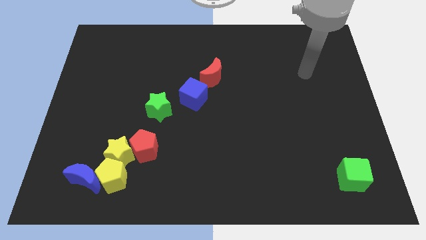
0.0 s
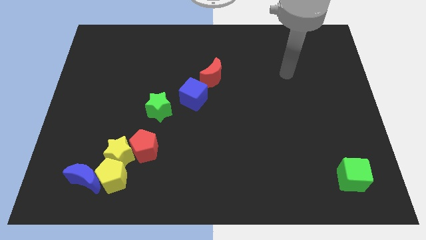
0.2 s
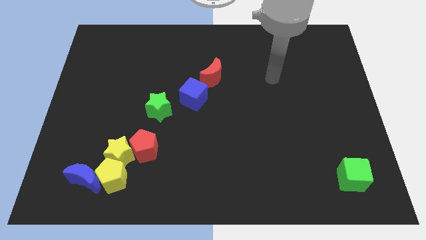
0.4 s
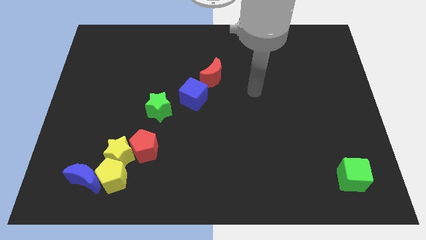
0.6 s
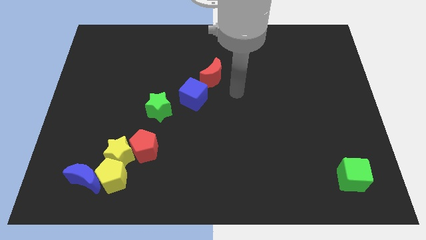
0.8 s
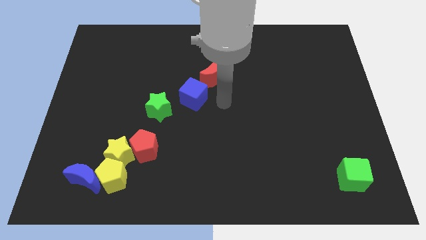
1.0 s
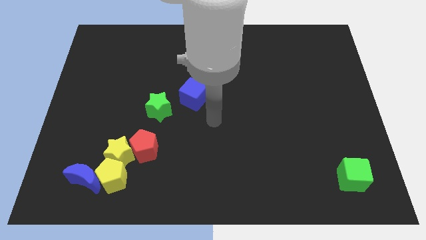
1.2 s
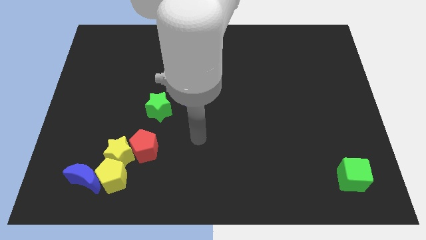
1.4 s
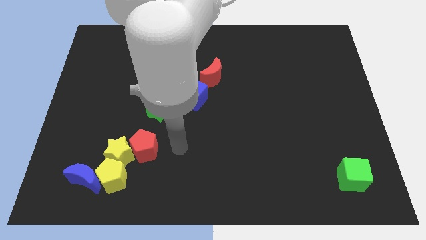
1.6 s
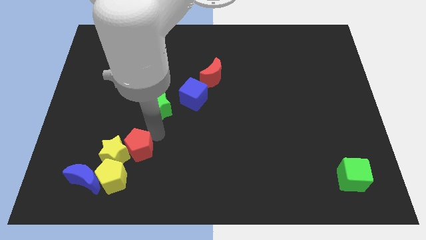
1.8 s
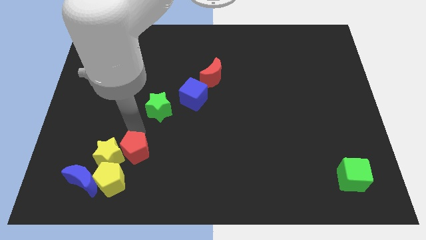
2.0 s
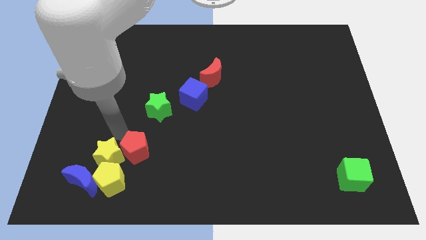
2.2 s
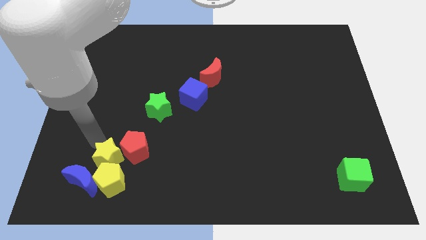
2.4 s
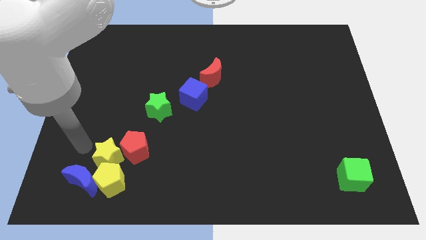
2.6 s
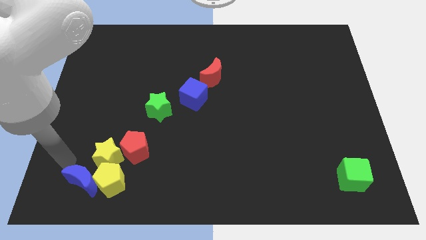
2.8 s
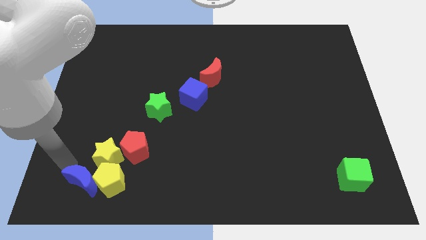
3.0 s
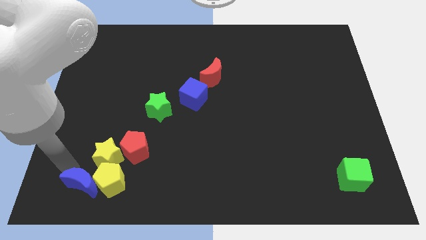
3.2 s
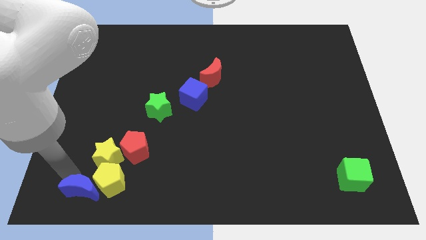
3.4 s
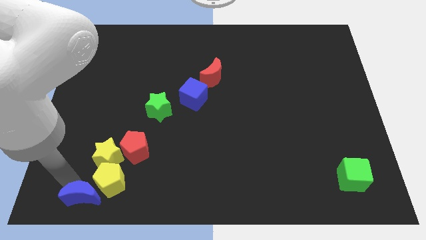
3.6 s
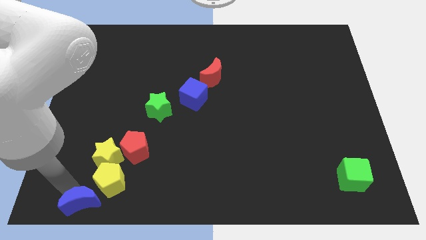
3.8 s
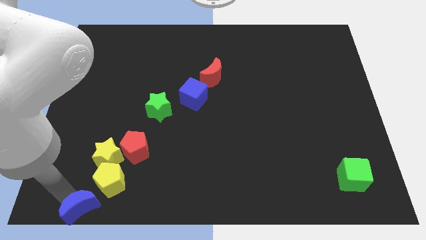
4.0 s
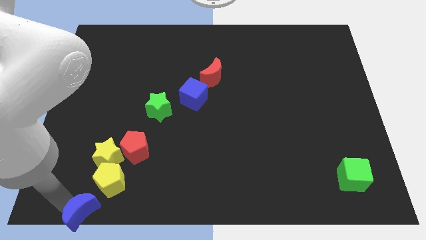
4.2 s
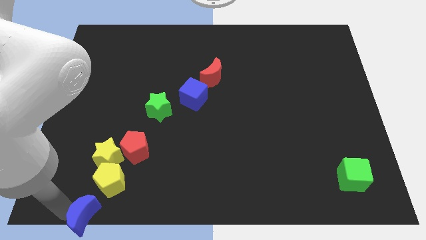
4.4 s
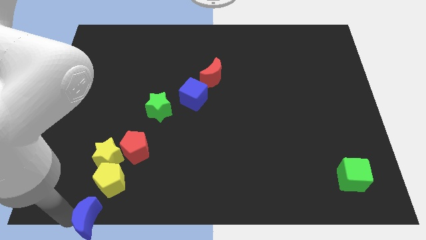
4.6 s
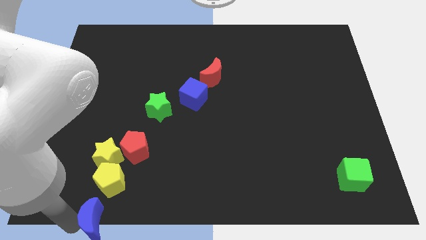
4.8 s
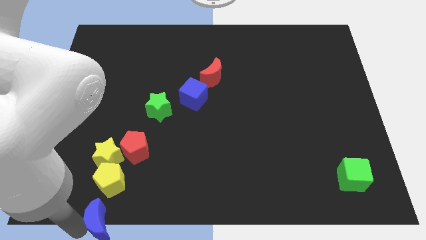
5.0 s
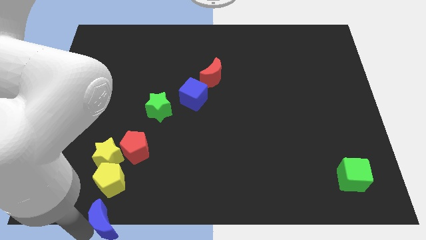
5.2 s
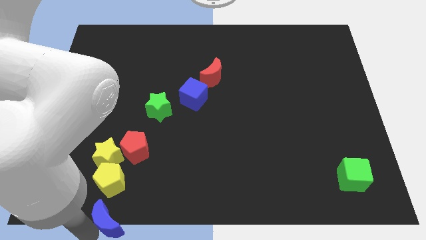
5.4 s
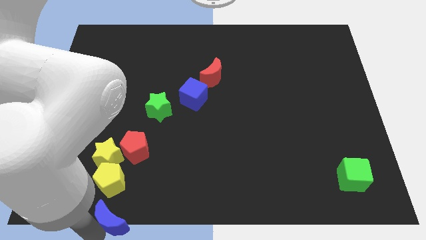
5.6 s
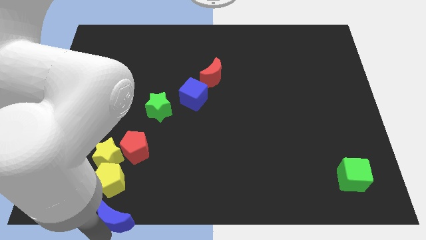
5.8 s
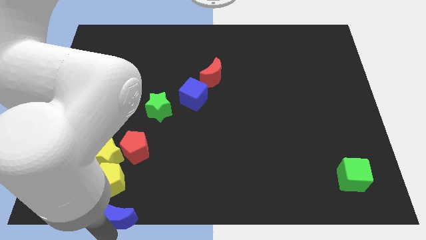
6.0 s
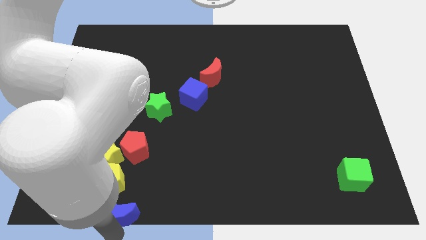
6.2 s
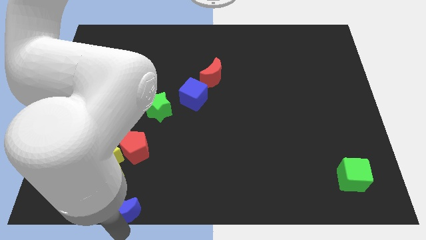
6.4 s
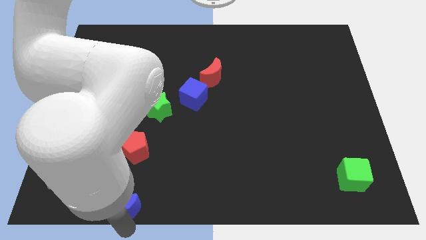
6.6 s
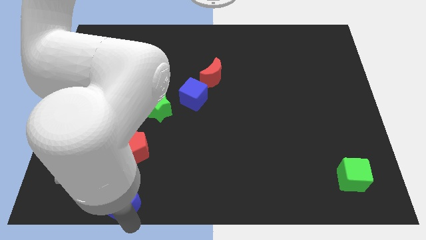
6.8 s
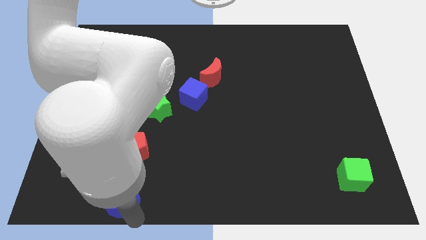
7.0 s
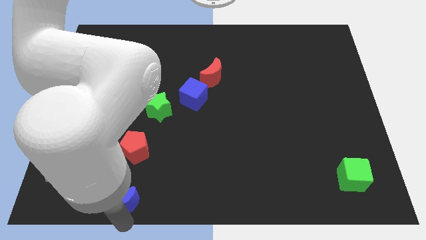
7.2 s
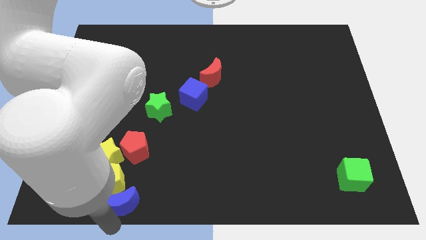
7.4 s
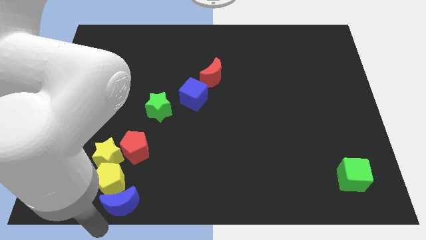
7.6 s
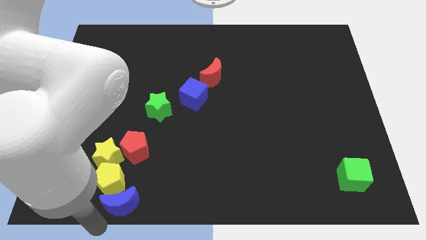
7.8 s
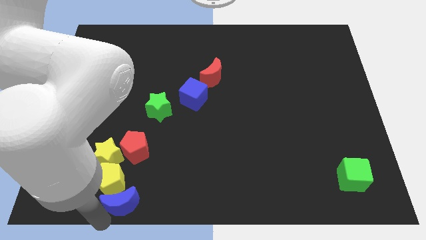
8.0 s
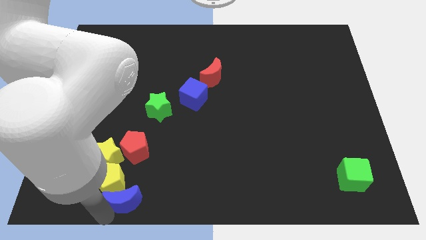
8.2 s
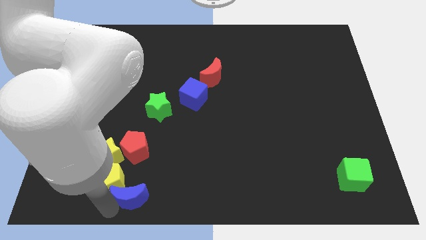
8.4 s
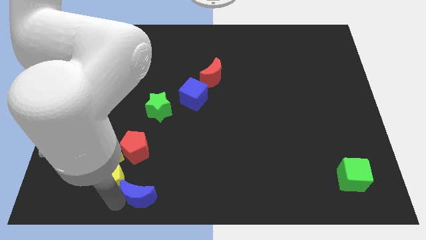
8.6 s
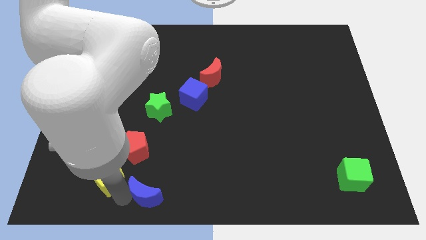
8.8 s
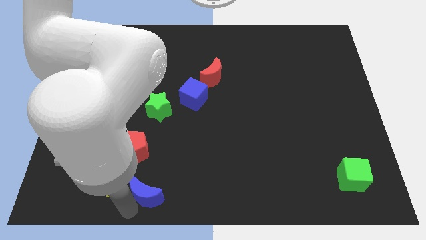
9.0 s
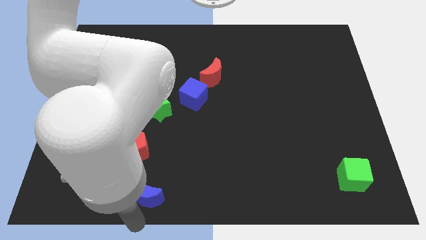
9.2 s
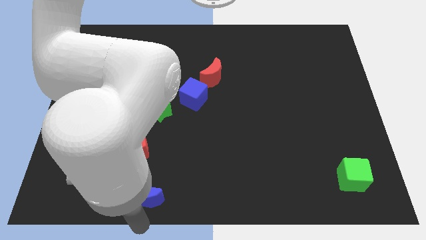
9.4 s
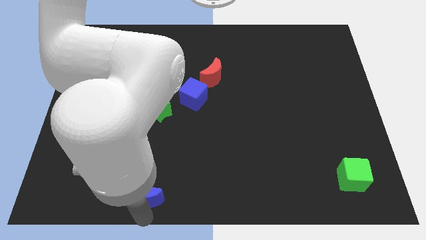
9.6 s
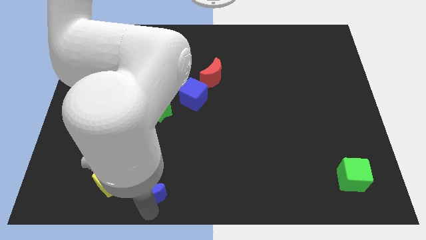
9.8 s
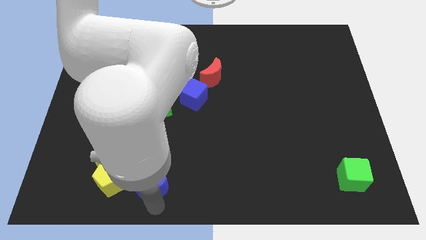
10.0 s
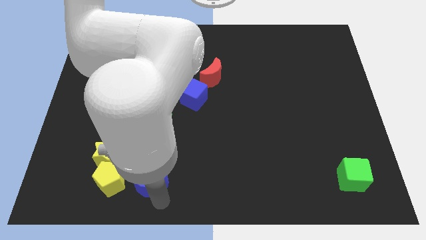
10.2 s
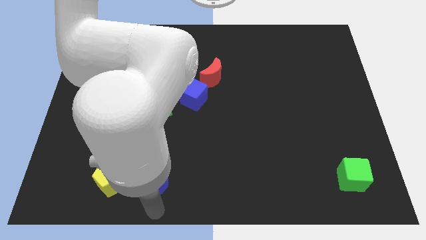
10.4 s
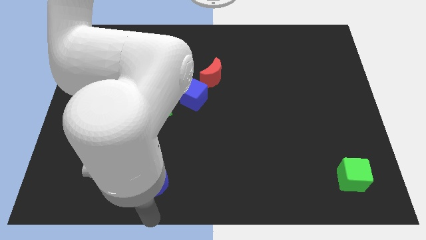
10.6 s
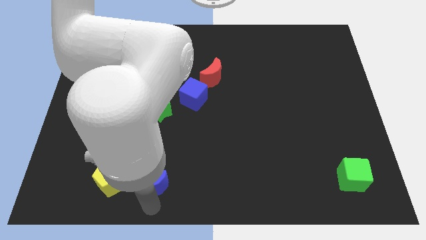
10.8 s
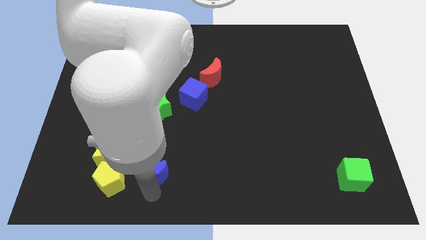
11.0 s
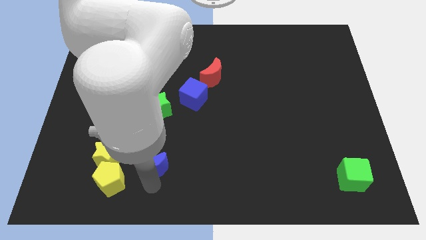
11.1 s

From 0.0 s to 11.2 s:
push the blue moon to the bottom of the green star

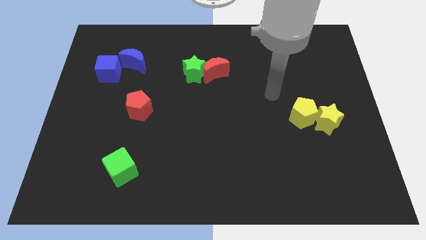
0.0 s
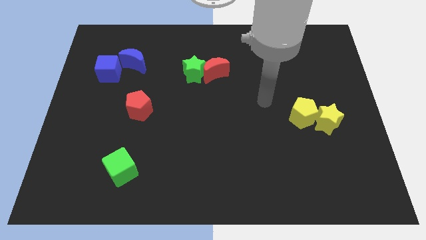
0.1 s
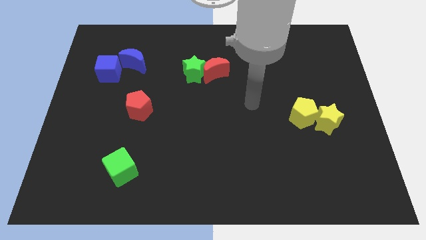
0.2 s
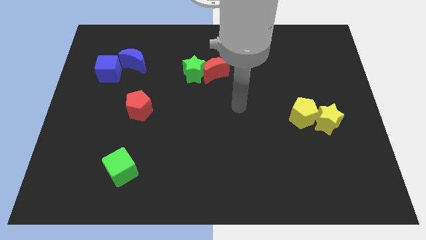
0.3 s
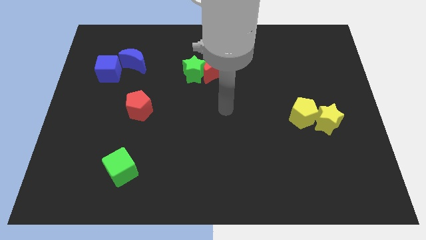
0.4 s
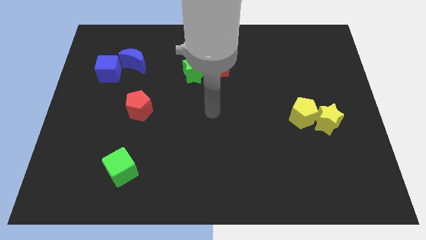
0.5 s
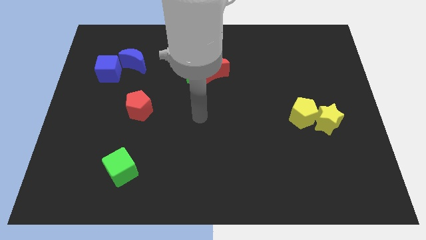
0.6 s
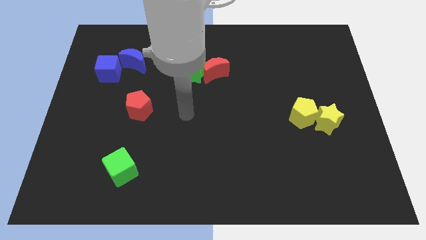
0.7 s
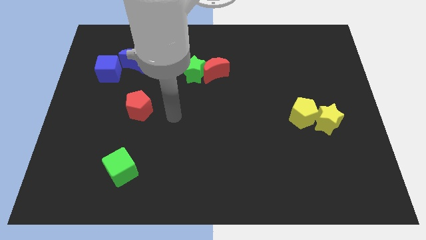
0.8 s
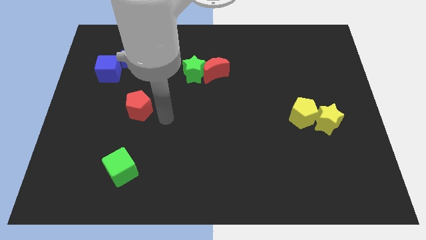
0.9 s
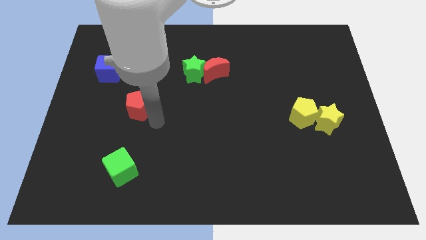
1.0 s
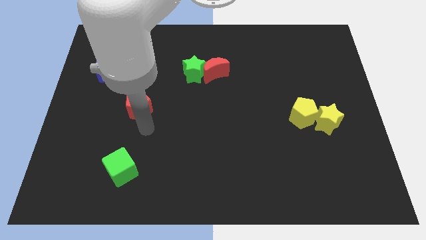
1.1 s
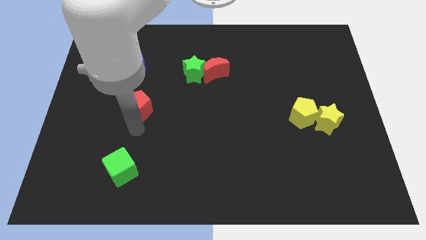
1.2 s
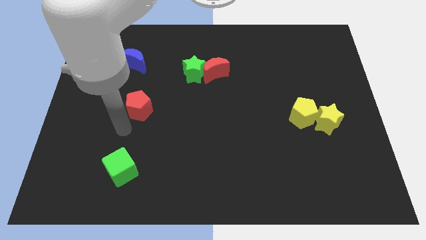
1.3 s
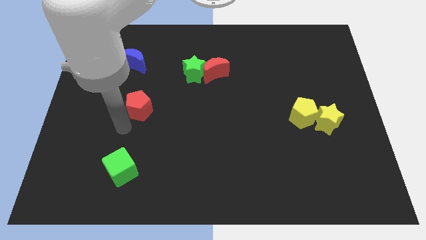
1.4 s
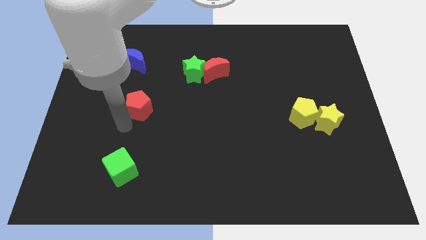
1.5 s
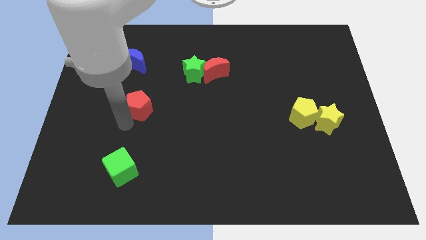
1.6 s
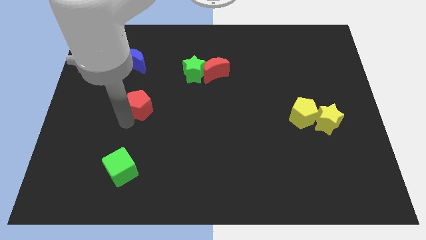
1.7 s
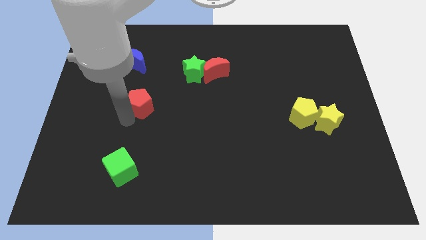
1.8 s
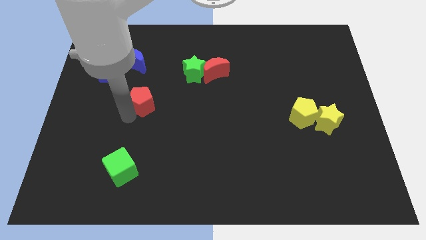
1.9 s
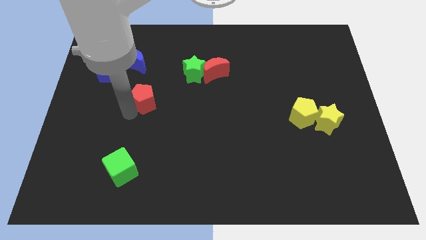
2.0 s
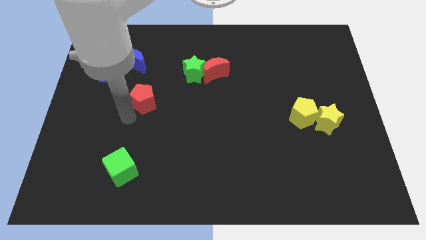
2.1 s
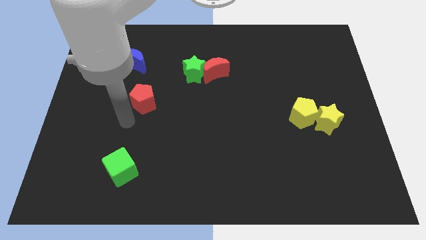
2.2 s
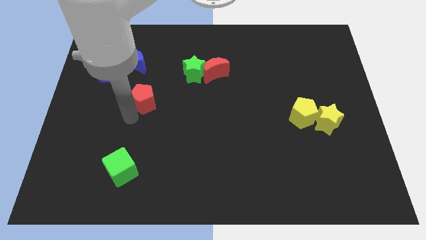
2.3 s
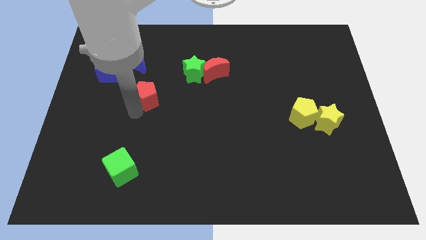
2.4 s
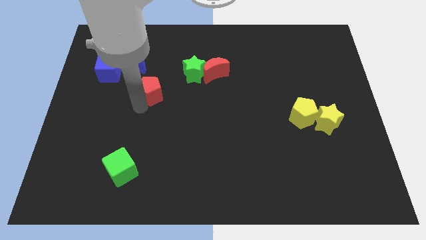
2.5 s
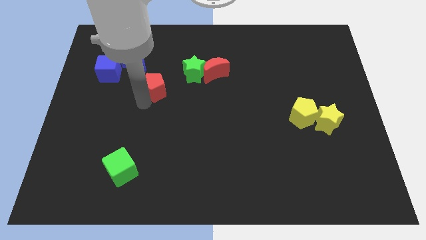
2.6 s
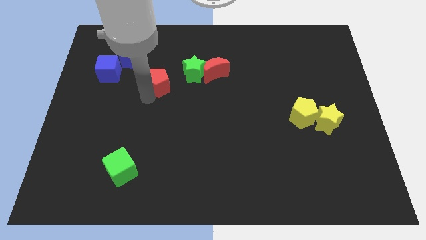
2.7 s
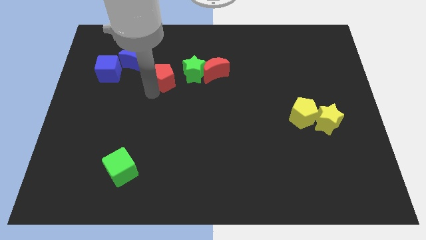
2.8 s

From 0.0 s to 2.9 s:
slide the red pentagon to the left side of the red moon
